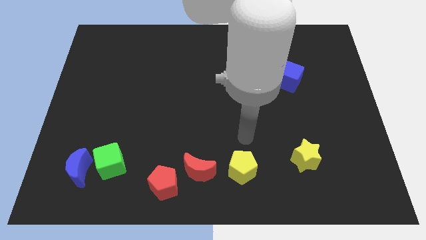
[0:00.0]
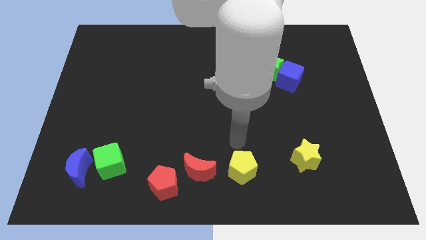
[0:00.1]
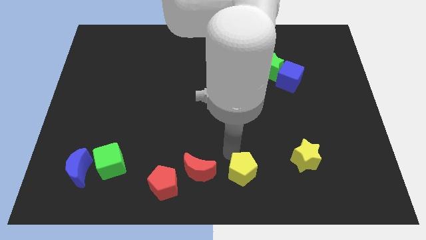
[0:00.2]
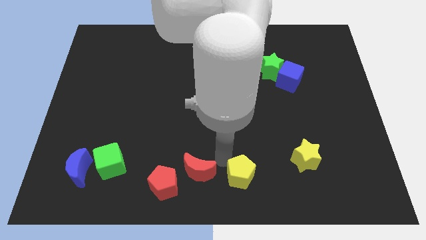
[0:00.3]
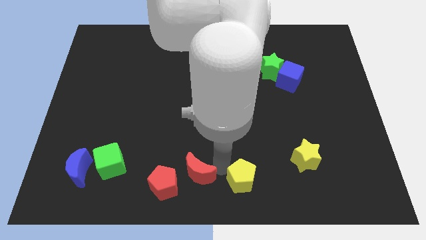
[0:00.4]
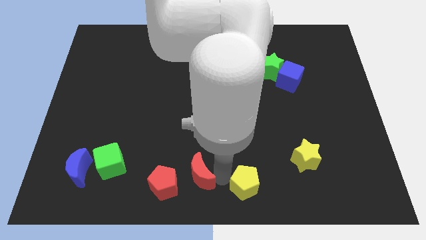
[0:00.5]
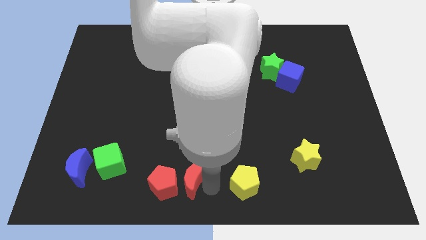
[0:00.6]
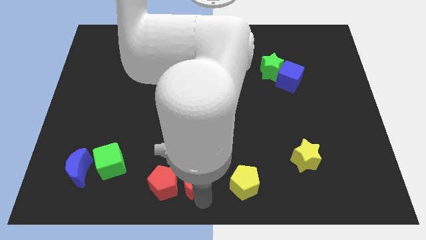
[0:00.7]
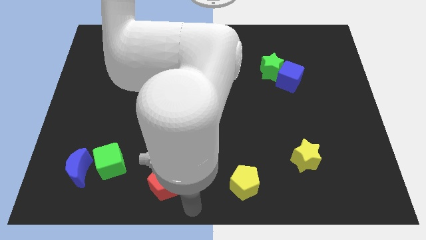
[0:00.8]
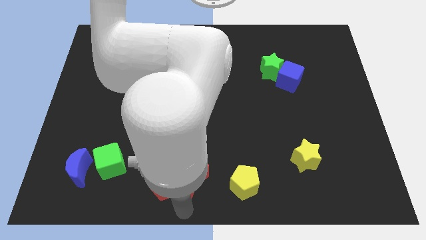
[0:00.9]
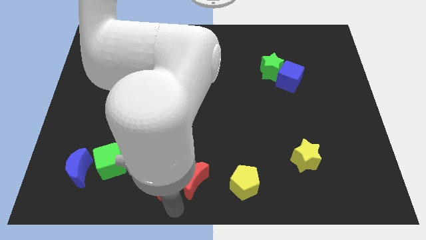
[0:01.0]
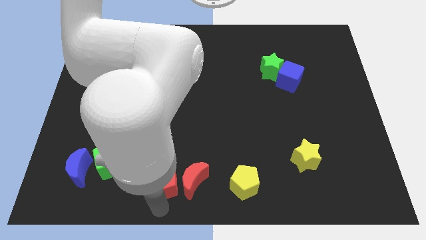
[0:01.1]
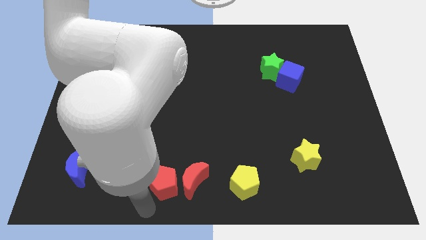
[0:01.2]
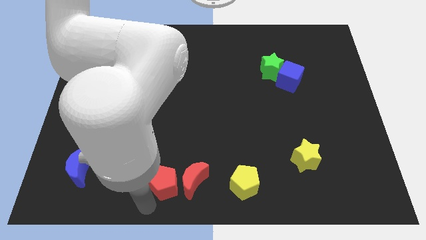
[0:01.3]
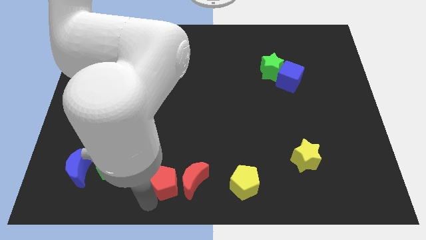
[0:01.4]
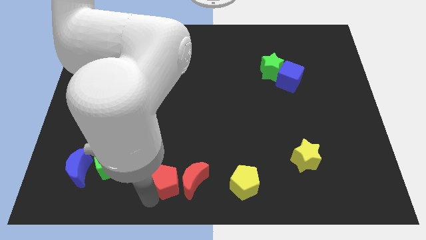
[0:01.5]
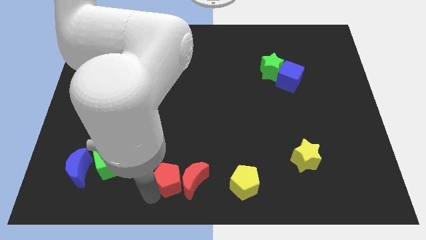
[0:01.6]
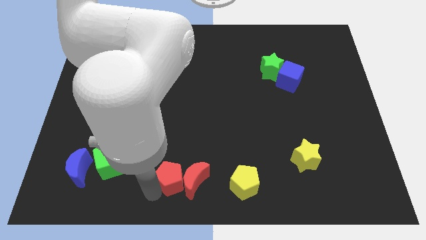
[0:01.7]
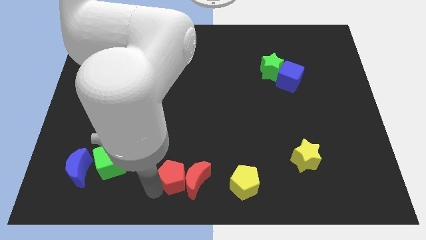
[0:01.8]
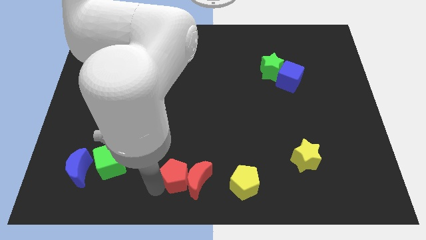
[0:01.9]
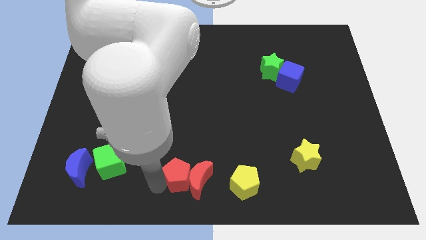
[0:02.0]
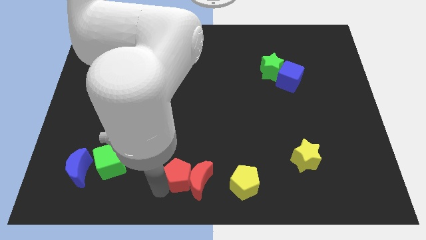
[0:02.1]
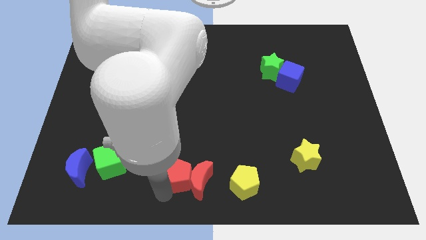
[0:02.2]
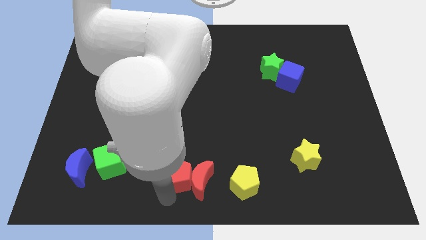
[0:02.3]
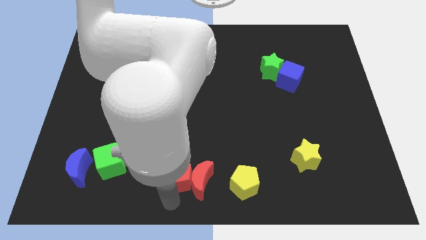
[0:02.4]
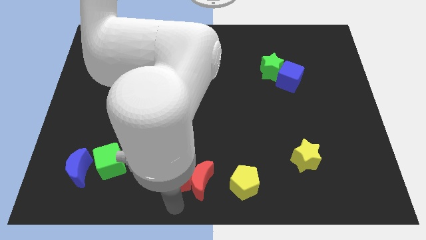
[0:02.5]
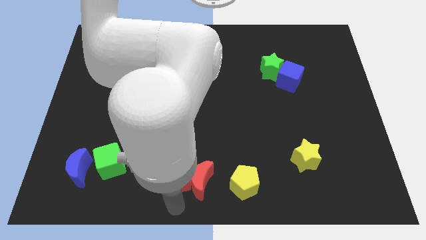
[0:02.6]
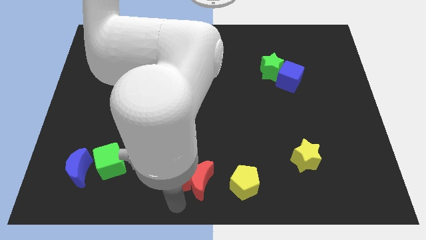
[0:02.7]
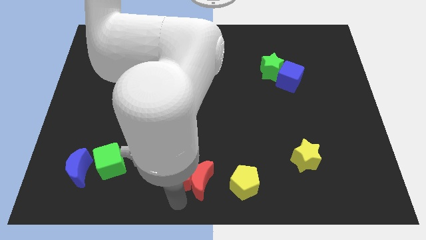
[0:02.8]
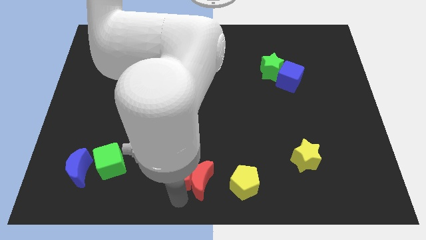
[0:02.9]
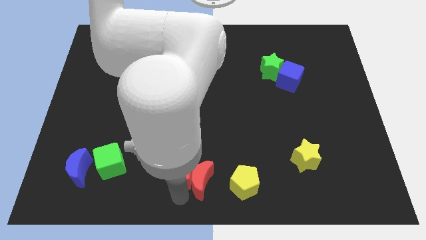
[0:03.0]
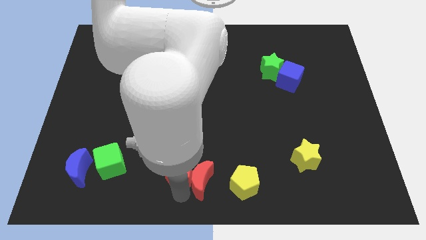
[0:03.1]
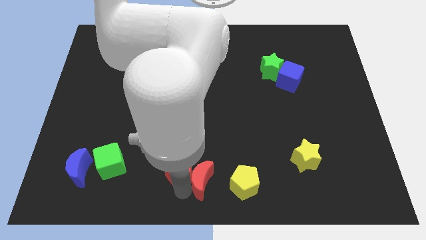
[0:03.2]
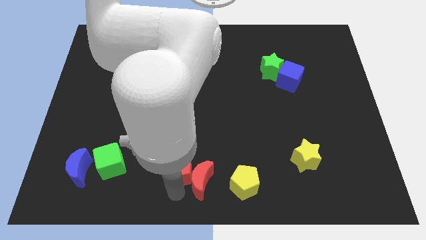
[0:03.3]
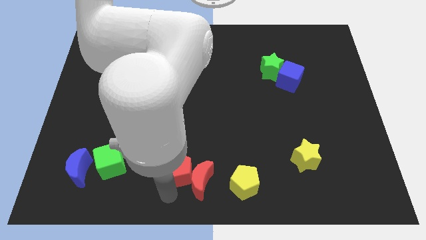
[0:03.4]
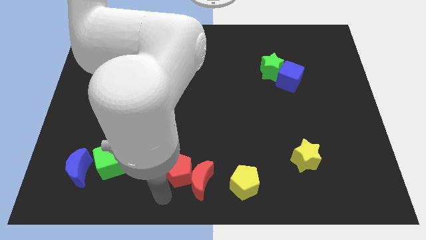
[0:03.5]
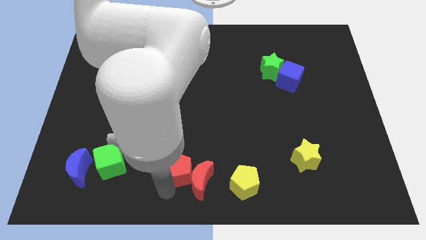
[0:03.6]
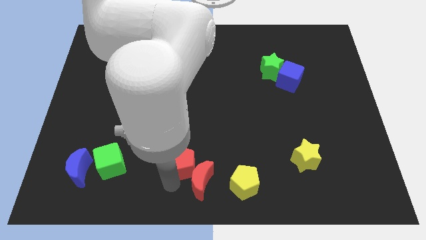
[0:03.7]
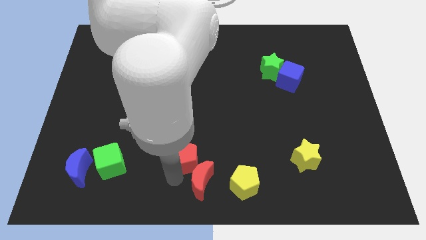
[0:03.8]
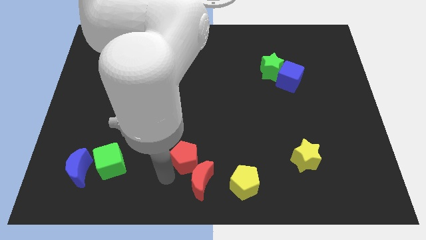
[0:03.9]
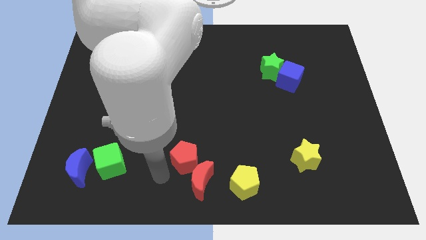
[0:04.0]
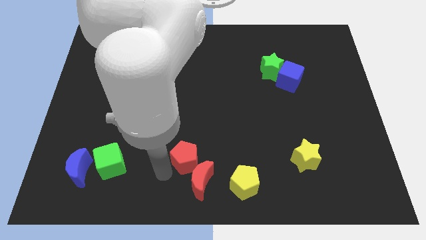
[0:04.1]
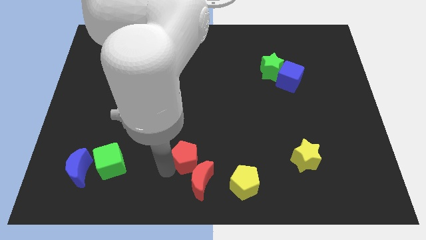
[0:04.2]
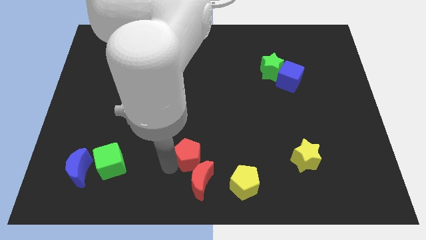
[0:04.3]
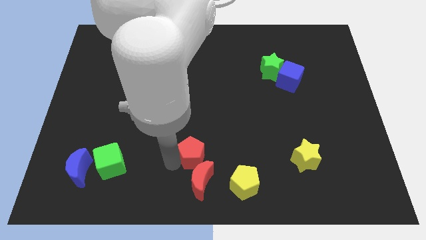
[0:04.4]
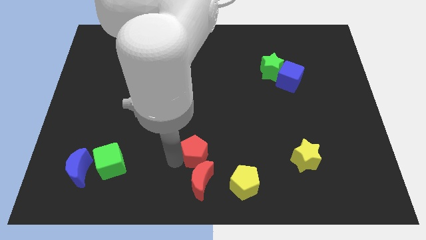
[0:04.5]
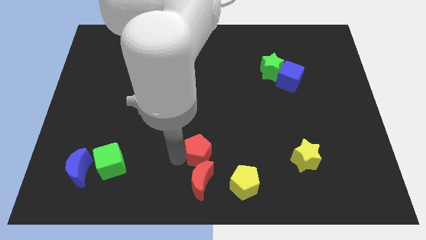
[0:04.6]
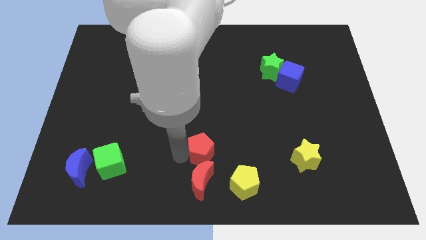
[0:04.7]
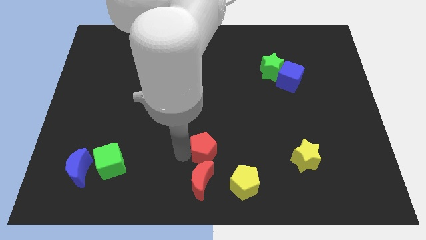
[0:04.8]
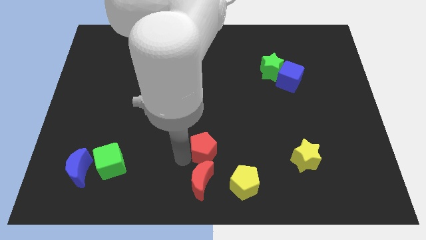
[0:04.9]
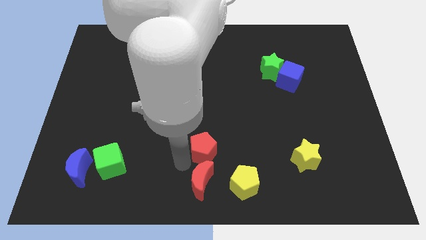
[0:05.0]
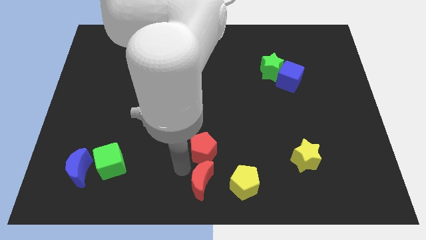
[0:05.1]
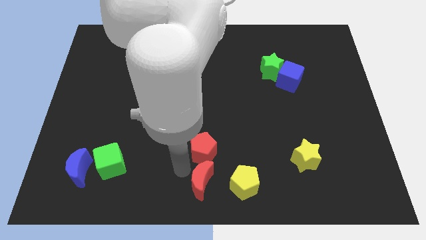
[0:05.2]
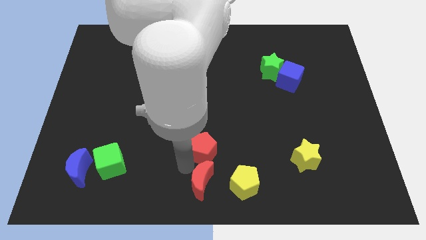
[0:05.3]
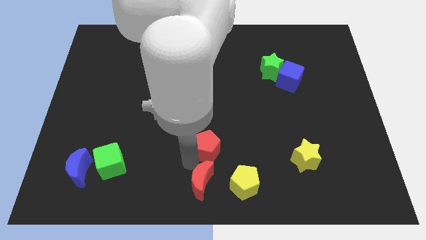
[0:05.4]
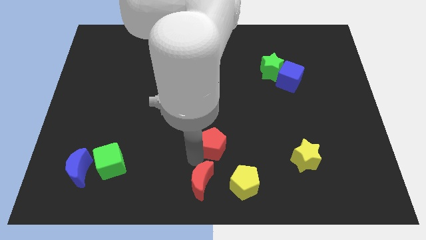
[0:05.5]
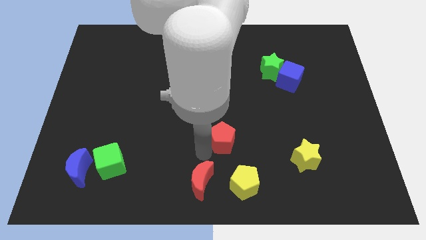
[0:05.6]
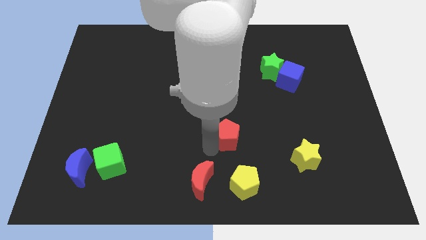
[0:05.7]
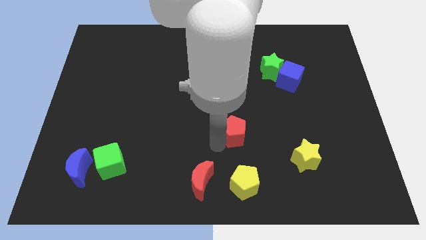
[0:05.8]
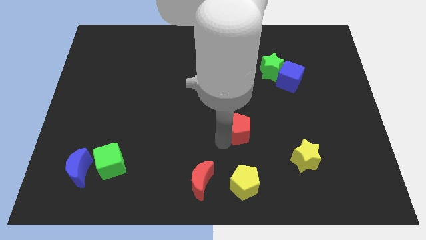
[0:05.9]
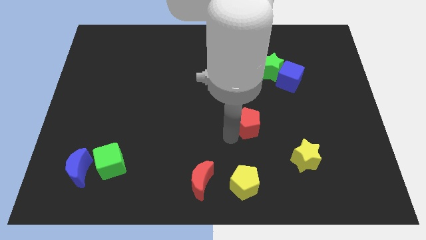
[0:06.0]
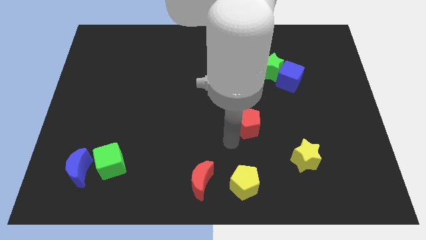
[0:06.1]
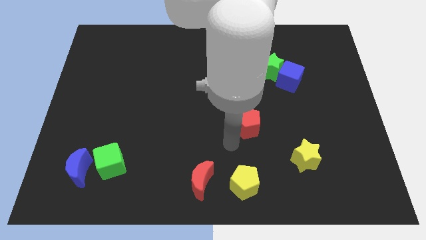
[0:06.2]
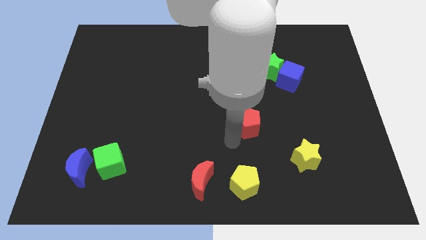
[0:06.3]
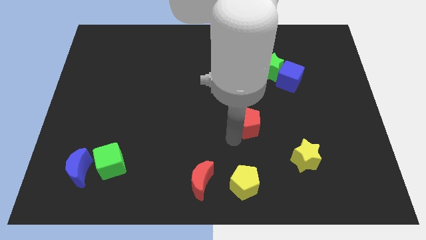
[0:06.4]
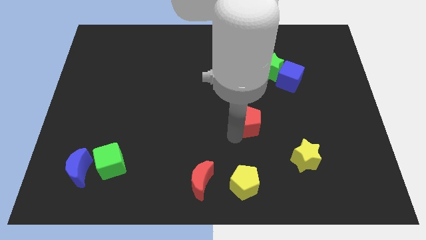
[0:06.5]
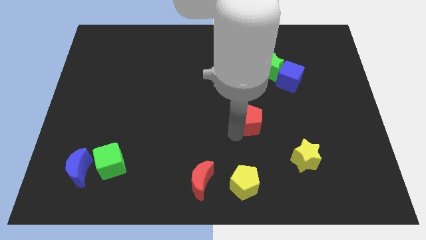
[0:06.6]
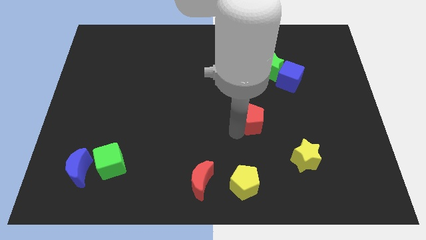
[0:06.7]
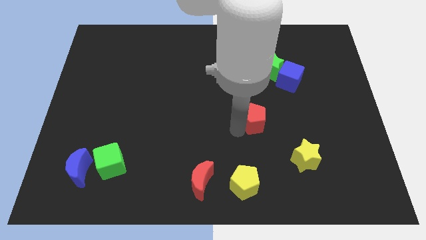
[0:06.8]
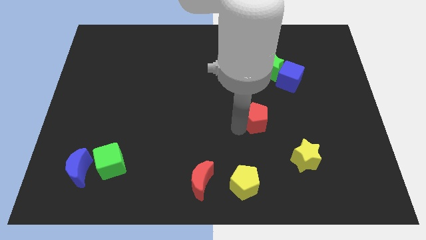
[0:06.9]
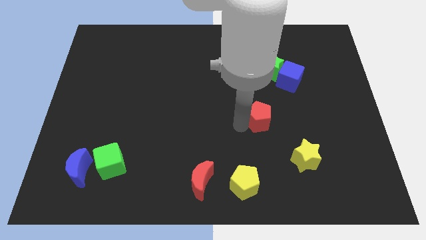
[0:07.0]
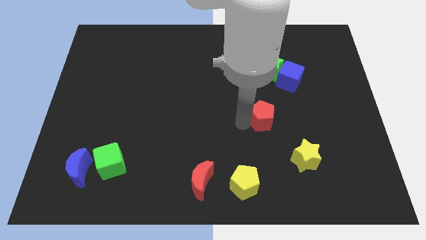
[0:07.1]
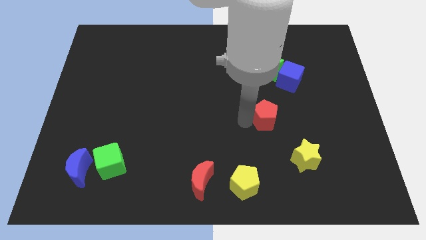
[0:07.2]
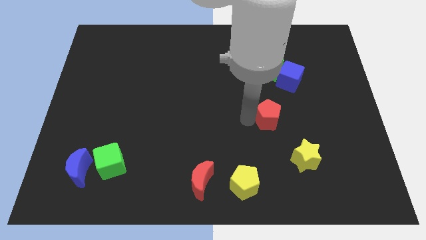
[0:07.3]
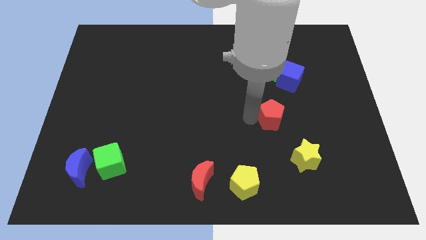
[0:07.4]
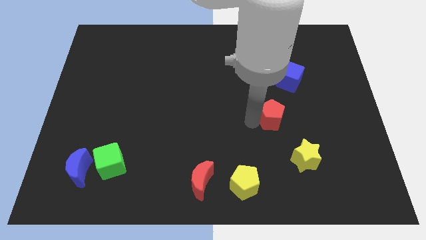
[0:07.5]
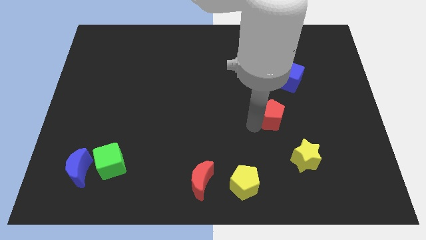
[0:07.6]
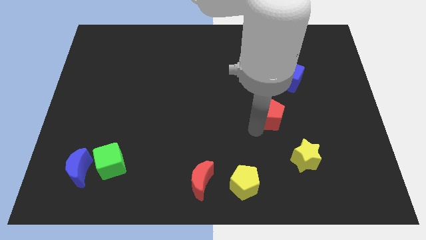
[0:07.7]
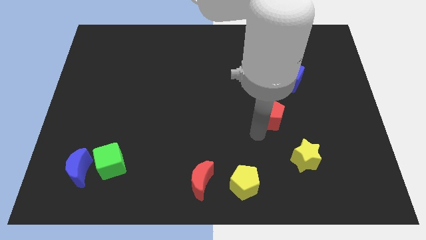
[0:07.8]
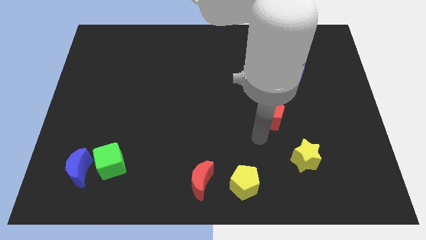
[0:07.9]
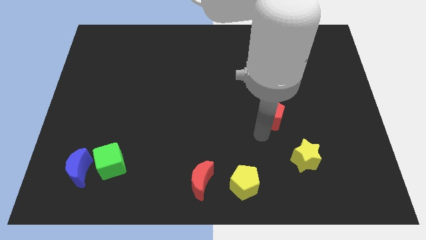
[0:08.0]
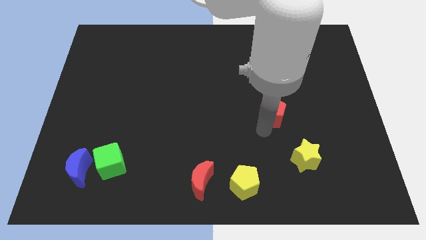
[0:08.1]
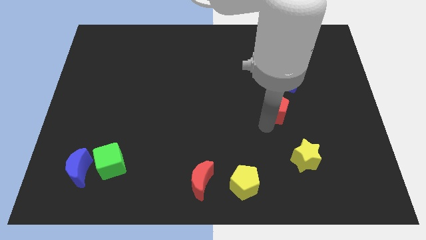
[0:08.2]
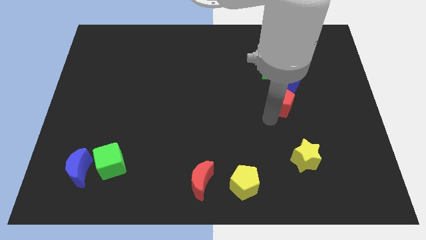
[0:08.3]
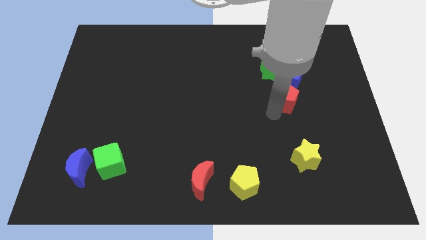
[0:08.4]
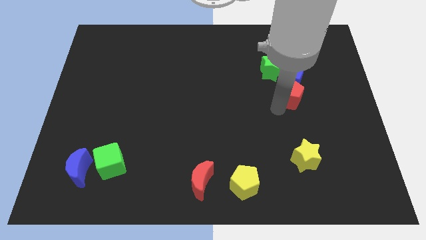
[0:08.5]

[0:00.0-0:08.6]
move the red pentagon diagonally down and to the right of the green star
